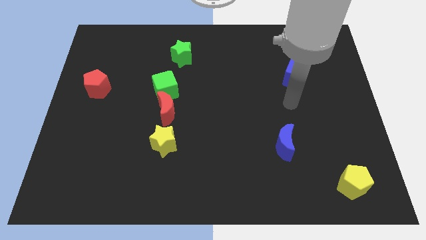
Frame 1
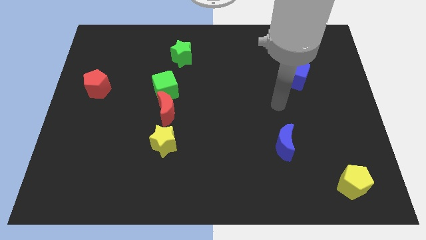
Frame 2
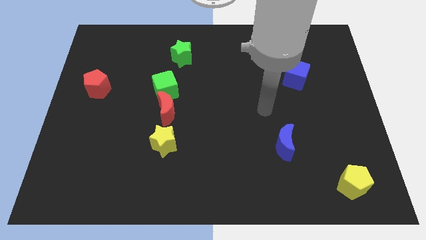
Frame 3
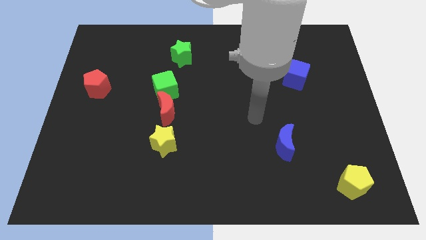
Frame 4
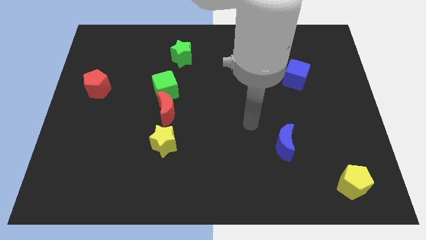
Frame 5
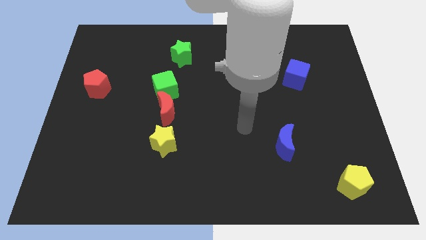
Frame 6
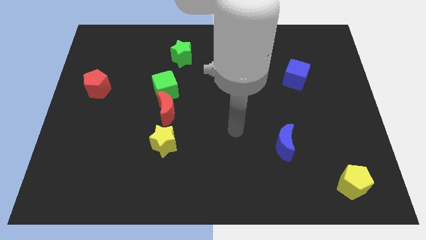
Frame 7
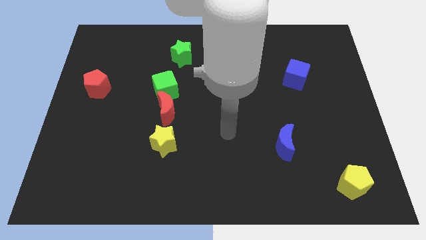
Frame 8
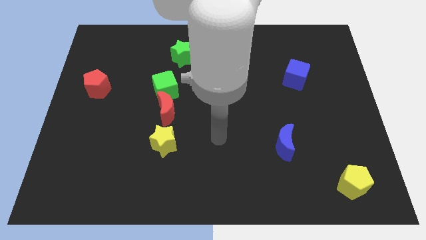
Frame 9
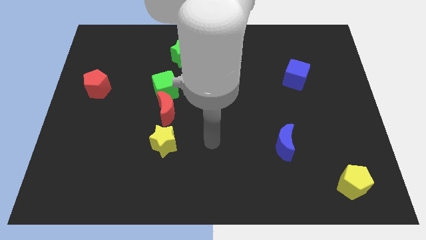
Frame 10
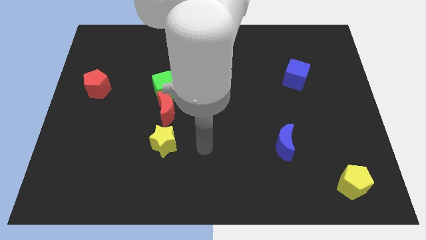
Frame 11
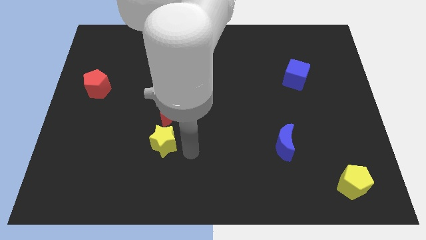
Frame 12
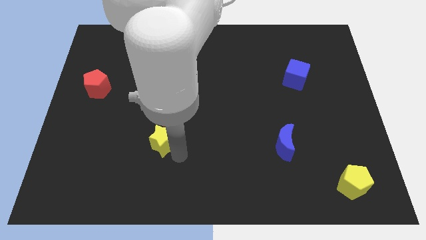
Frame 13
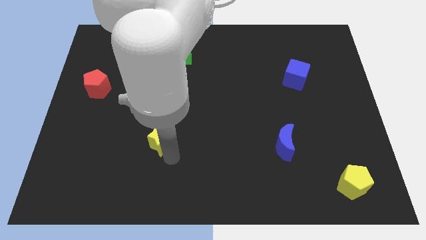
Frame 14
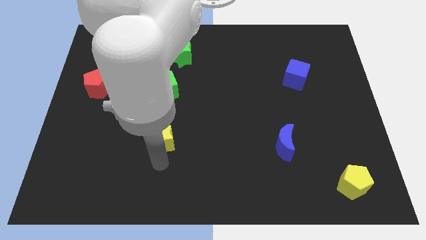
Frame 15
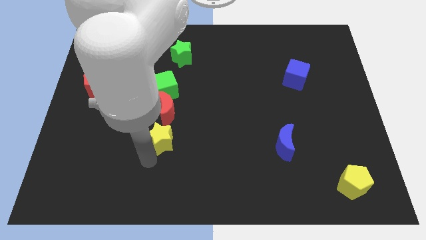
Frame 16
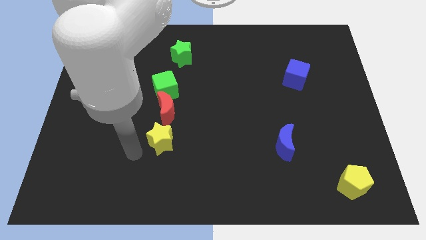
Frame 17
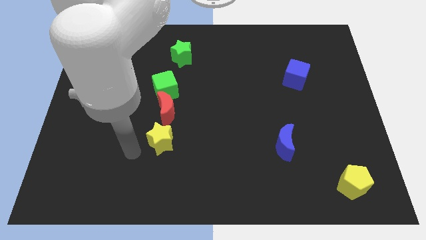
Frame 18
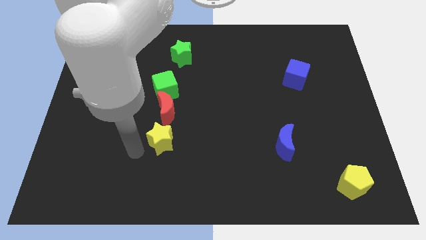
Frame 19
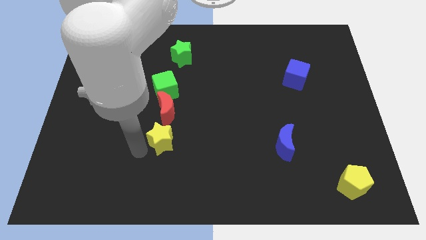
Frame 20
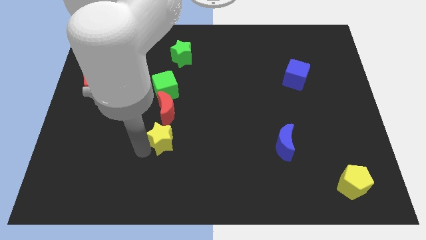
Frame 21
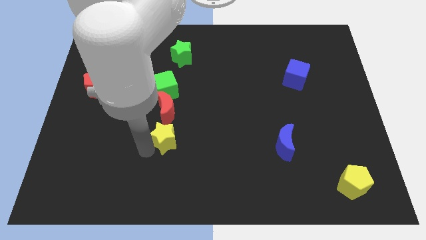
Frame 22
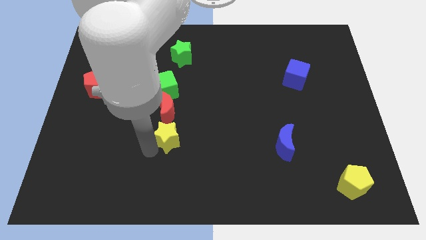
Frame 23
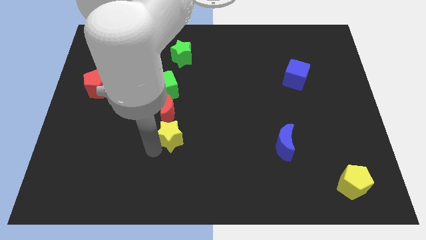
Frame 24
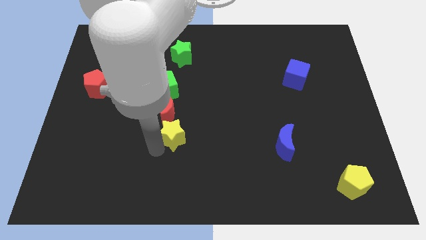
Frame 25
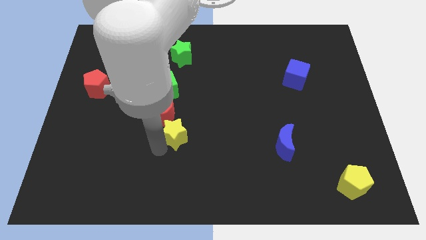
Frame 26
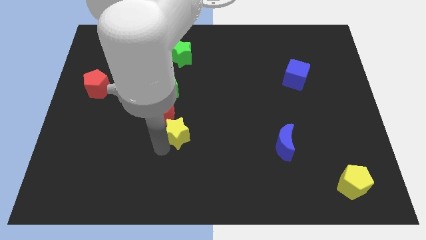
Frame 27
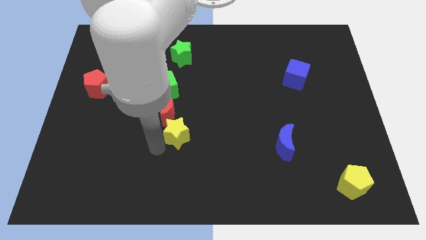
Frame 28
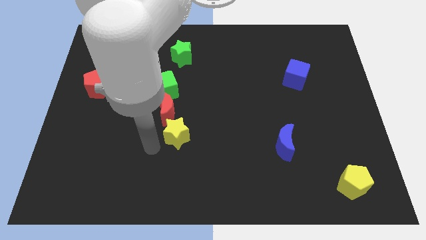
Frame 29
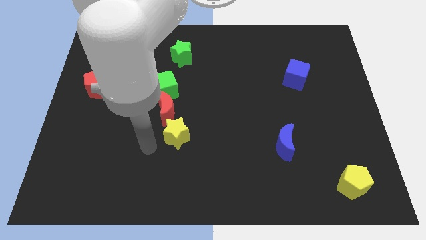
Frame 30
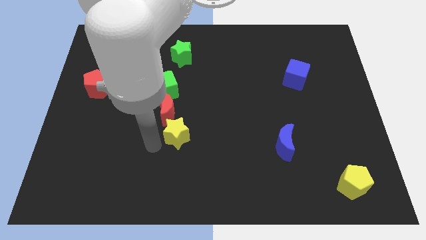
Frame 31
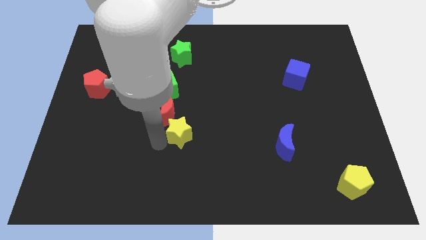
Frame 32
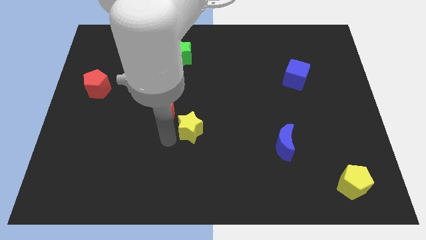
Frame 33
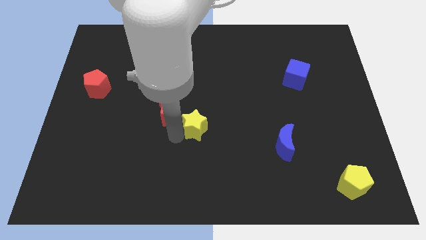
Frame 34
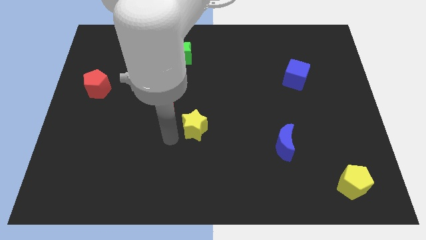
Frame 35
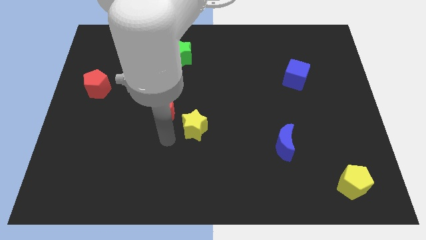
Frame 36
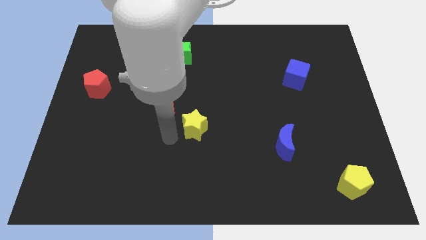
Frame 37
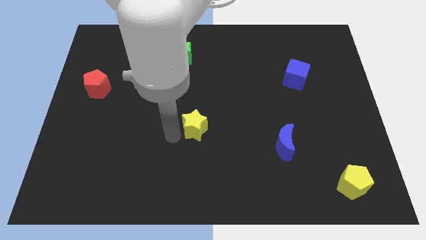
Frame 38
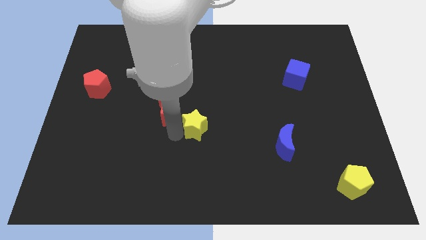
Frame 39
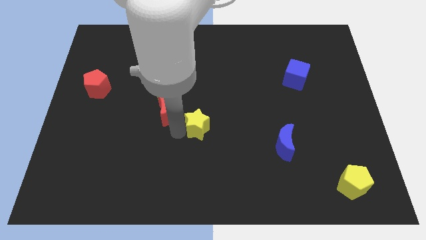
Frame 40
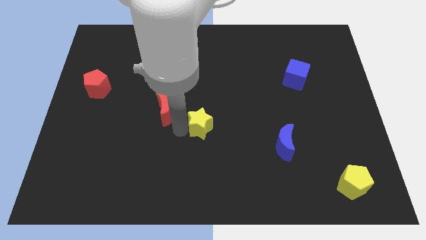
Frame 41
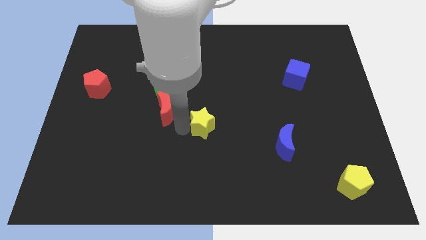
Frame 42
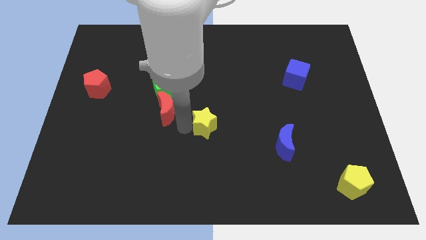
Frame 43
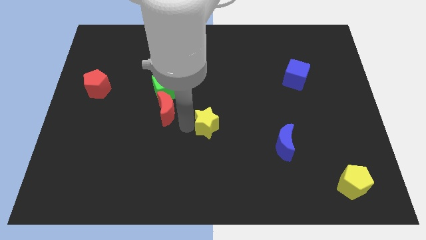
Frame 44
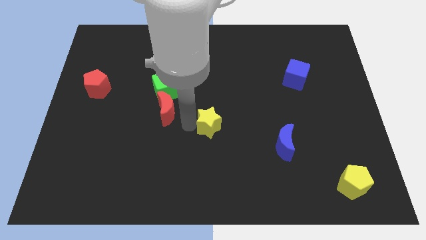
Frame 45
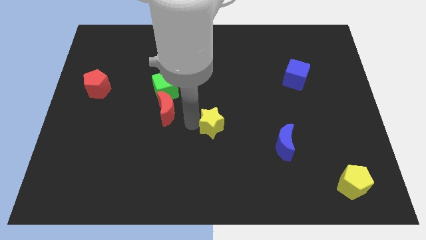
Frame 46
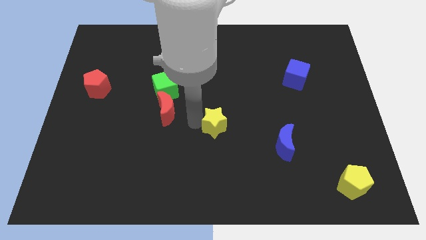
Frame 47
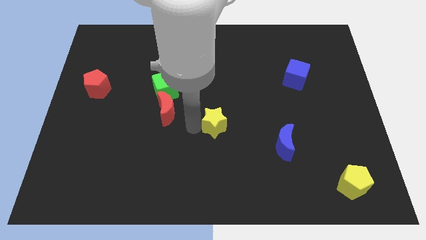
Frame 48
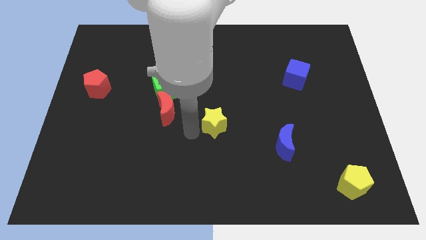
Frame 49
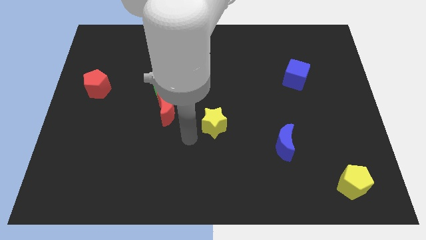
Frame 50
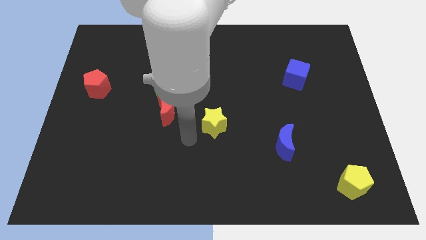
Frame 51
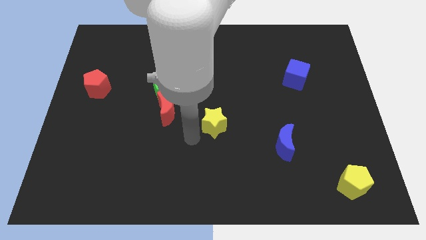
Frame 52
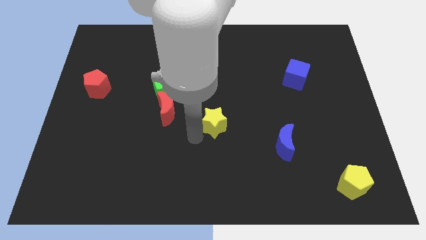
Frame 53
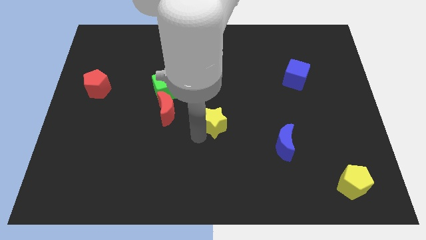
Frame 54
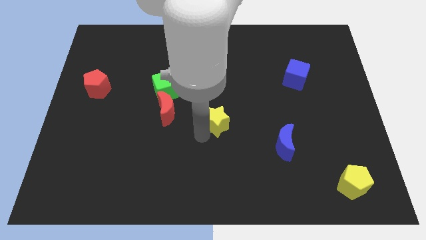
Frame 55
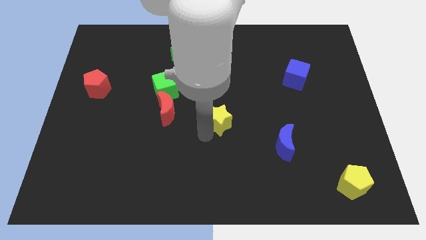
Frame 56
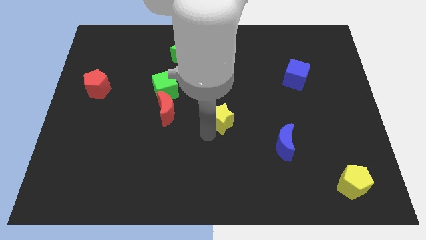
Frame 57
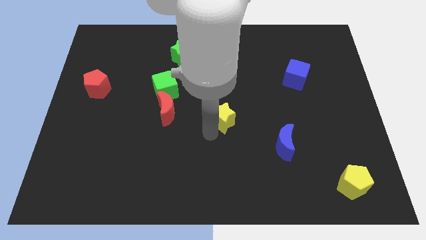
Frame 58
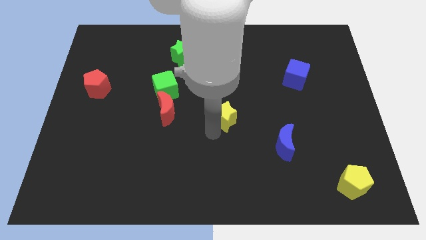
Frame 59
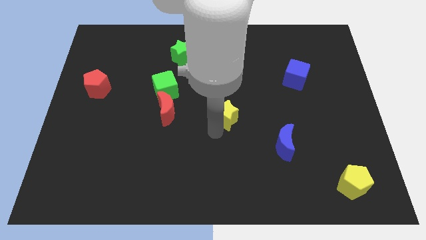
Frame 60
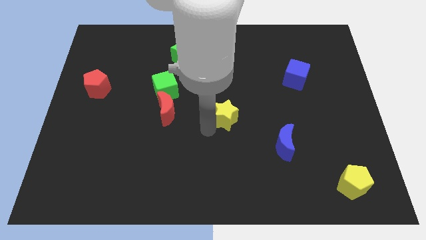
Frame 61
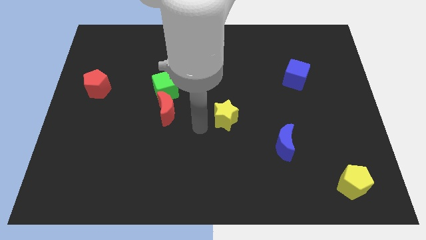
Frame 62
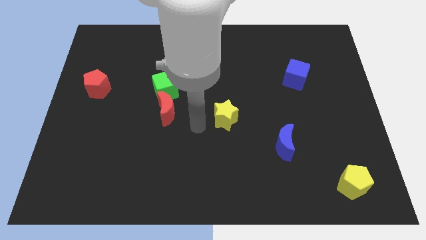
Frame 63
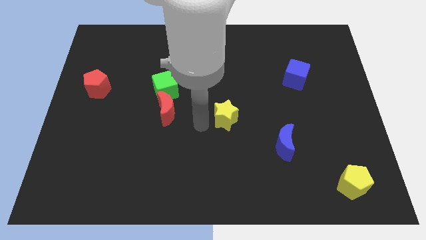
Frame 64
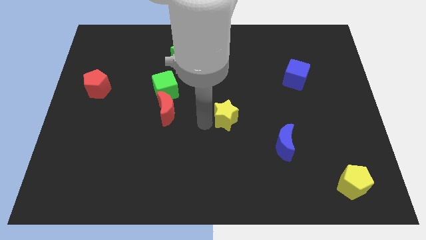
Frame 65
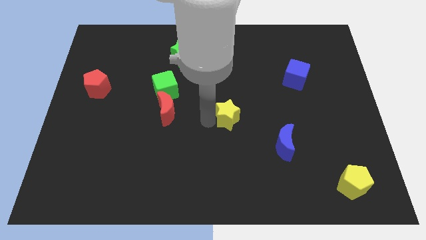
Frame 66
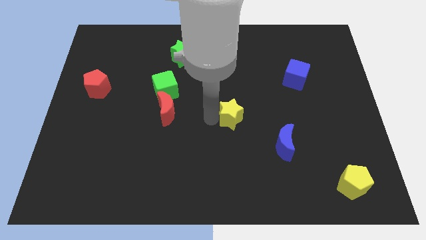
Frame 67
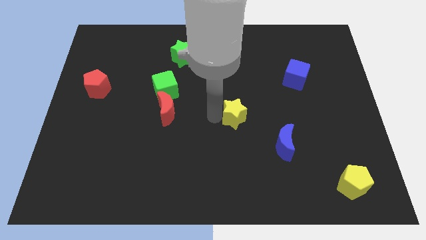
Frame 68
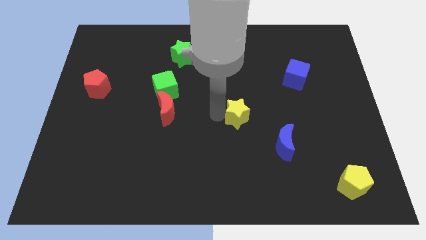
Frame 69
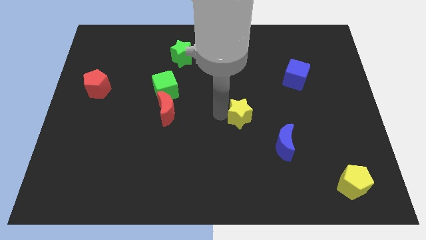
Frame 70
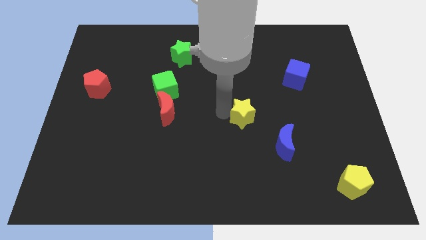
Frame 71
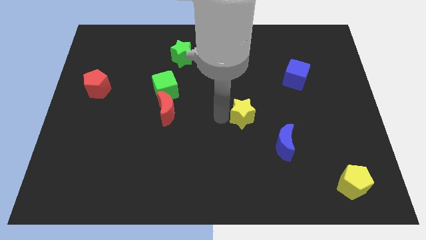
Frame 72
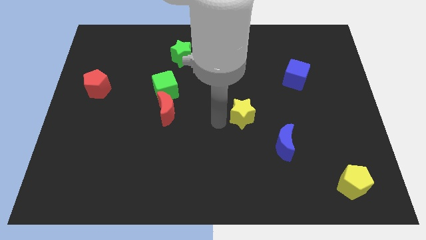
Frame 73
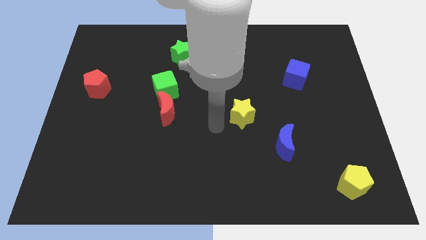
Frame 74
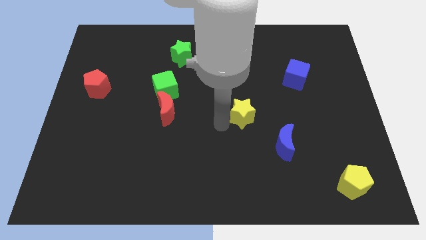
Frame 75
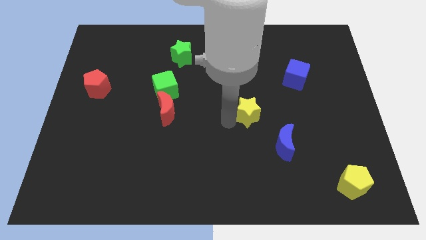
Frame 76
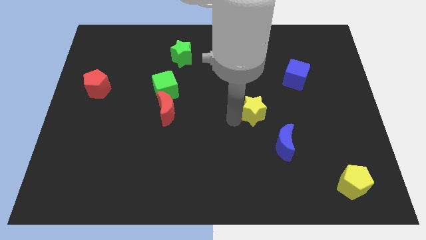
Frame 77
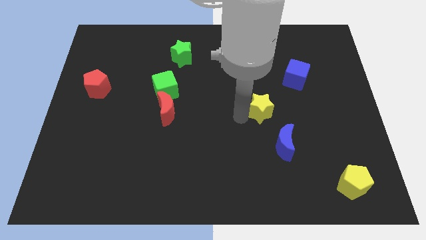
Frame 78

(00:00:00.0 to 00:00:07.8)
move the yellow star above the blue moon

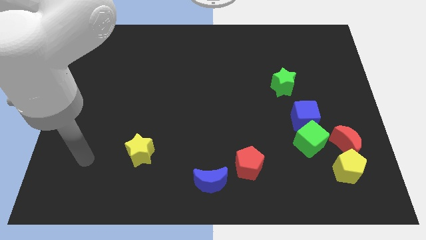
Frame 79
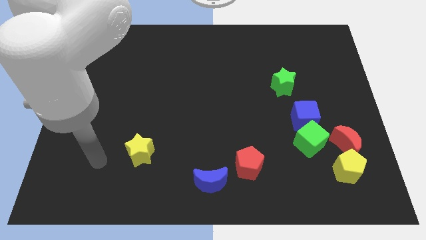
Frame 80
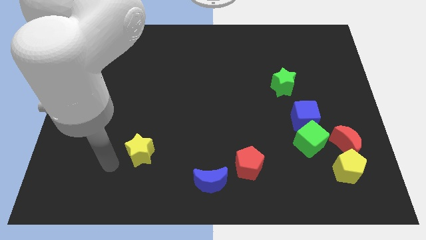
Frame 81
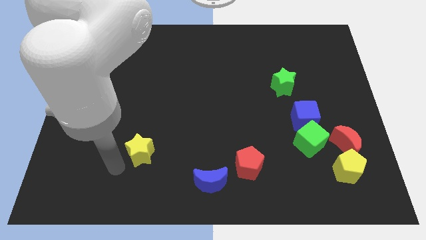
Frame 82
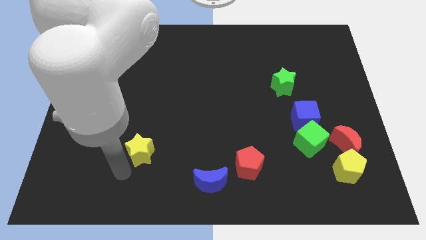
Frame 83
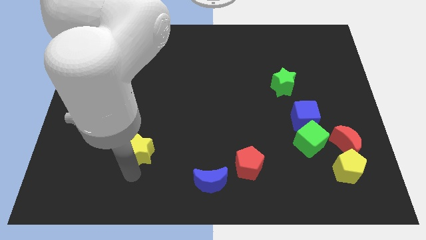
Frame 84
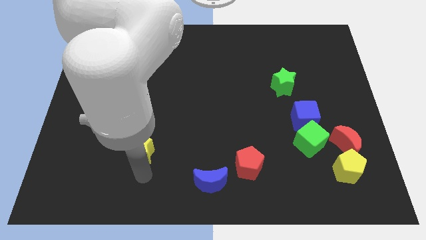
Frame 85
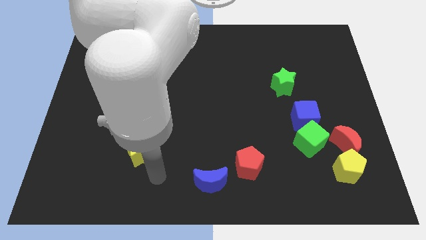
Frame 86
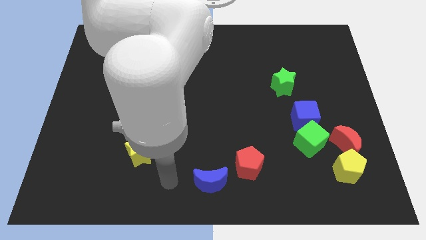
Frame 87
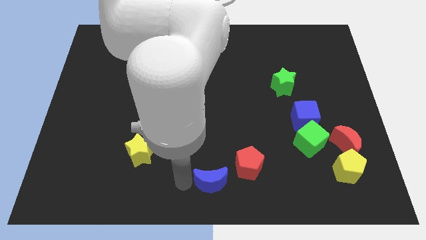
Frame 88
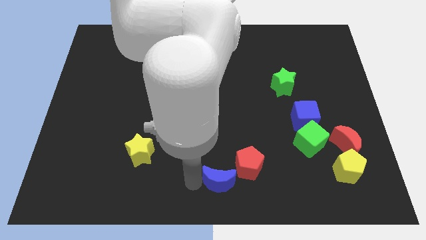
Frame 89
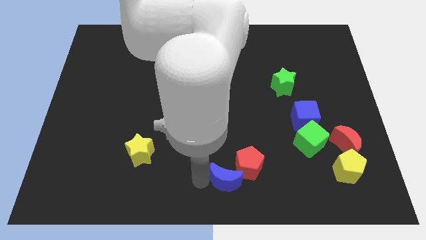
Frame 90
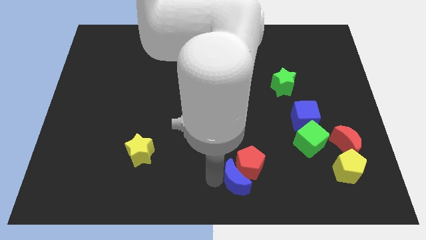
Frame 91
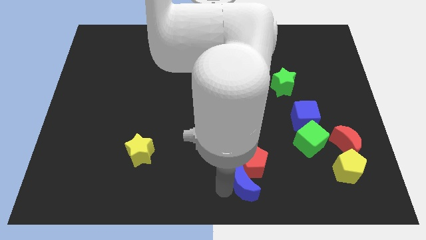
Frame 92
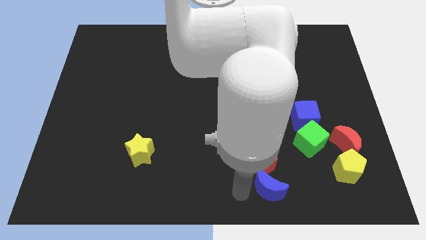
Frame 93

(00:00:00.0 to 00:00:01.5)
push the red pentagon to the left of the green cube
